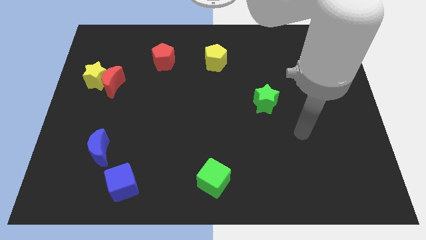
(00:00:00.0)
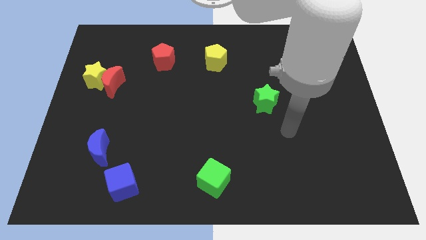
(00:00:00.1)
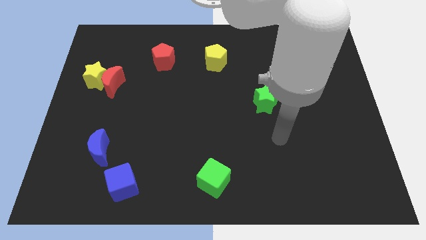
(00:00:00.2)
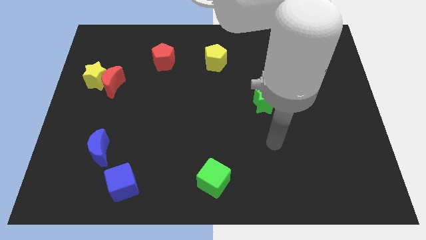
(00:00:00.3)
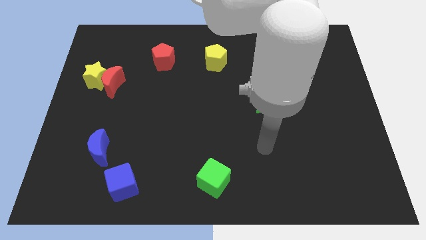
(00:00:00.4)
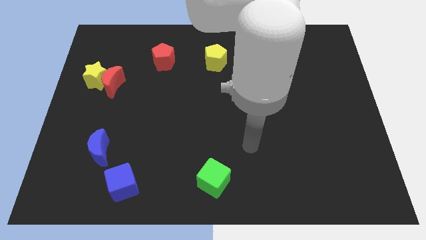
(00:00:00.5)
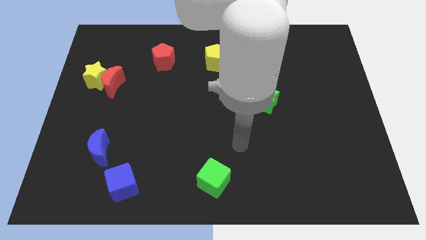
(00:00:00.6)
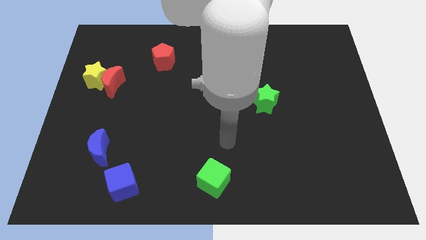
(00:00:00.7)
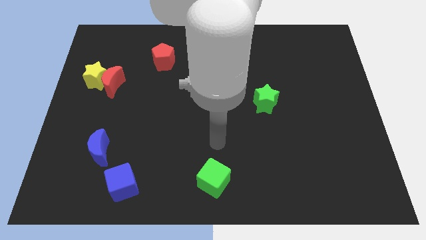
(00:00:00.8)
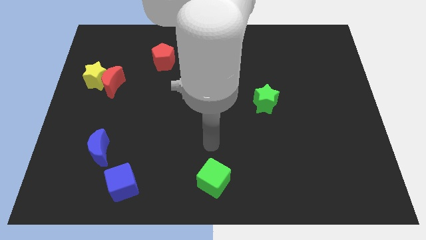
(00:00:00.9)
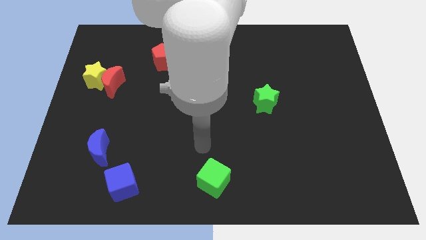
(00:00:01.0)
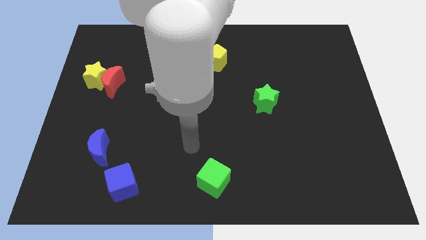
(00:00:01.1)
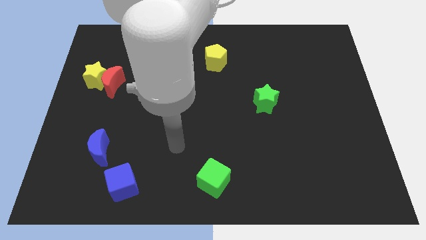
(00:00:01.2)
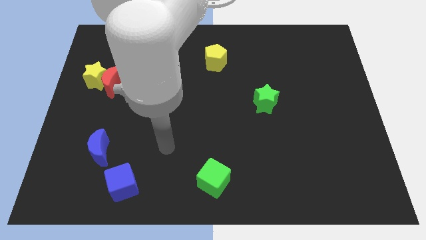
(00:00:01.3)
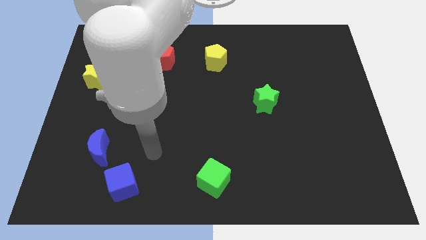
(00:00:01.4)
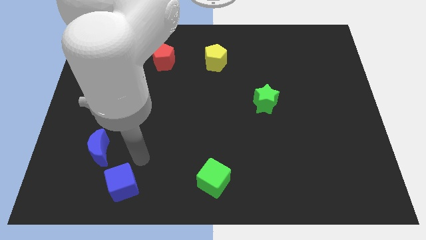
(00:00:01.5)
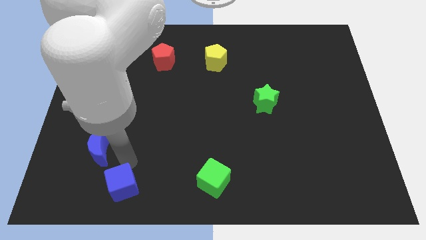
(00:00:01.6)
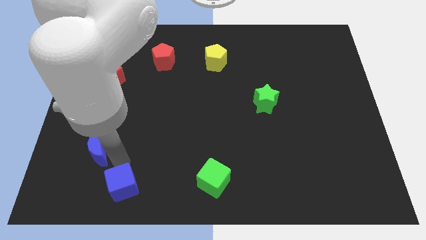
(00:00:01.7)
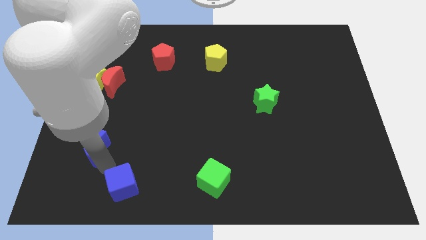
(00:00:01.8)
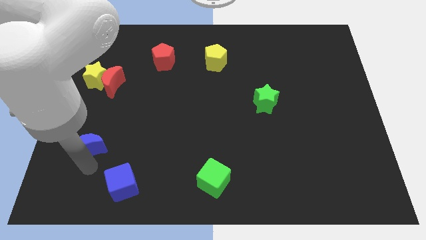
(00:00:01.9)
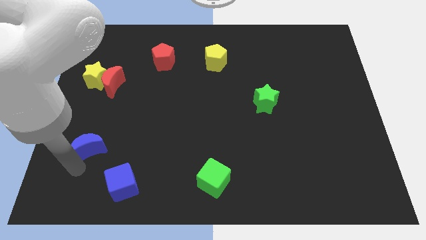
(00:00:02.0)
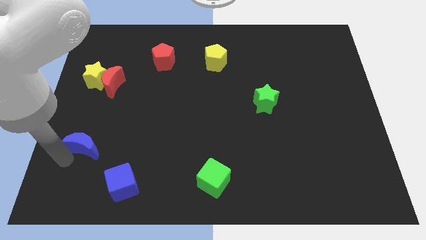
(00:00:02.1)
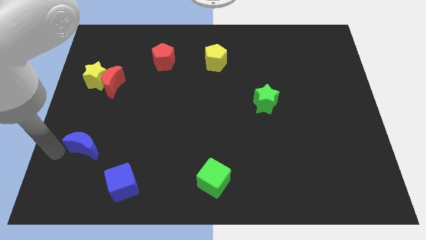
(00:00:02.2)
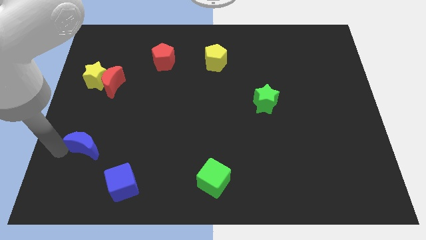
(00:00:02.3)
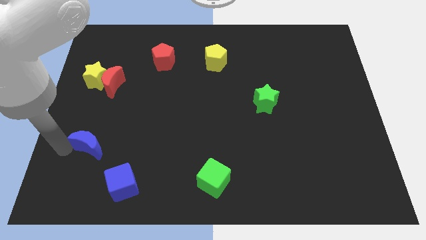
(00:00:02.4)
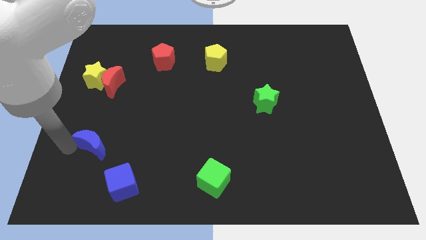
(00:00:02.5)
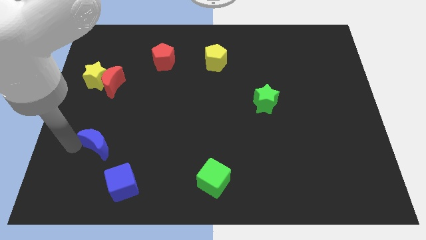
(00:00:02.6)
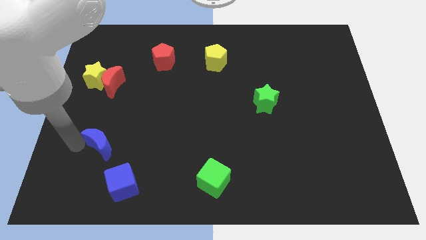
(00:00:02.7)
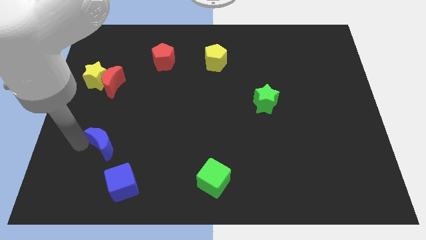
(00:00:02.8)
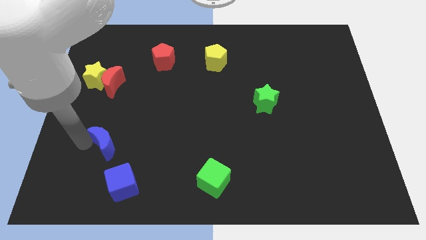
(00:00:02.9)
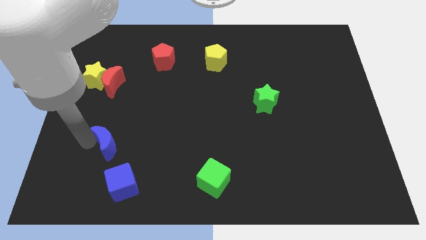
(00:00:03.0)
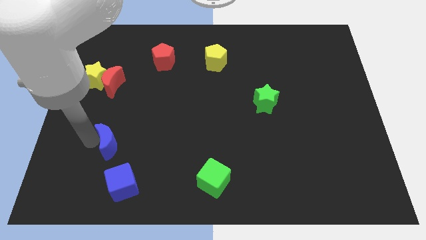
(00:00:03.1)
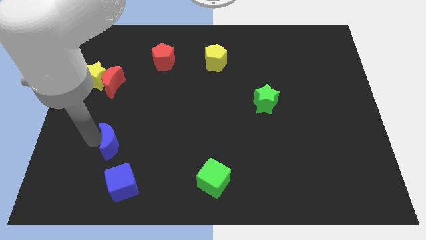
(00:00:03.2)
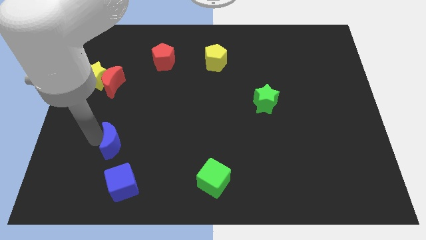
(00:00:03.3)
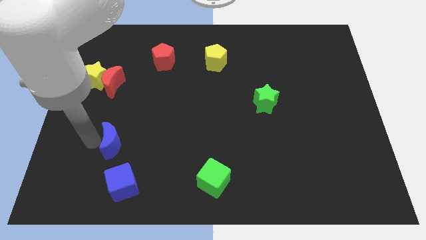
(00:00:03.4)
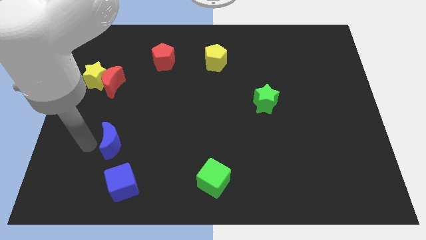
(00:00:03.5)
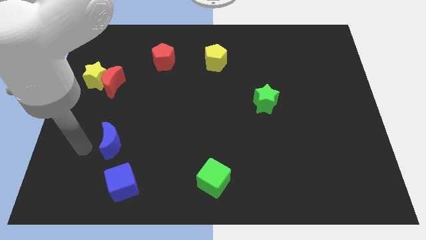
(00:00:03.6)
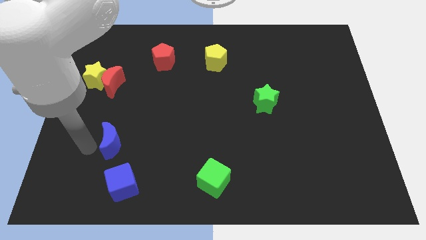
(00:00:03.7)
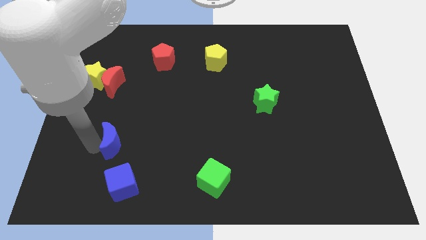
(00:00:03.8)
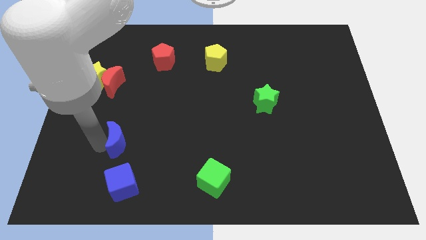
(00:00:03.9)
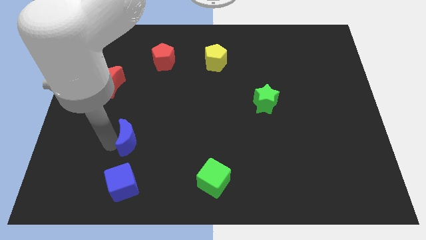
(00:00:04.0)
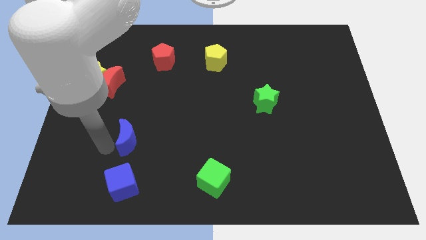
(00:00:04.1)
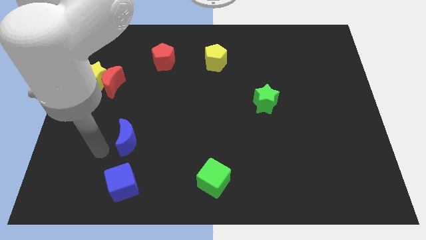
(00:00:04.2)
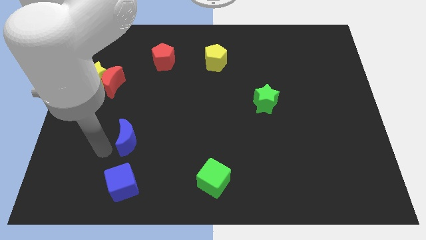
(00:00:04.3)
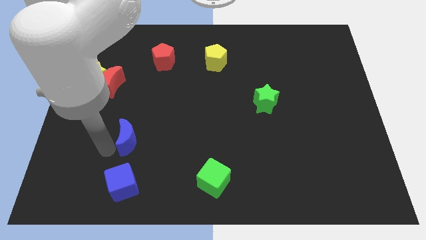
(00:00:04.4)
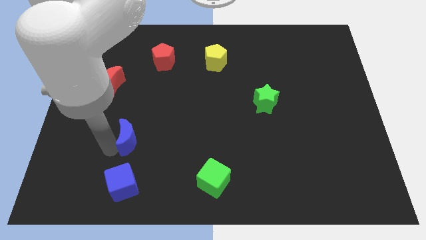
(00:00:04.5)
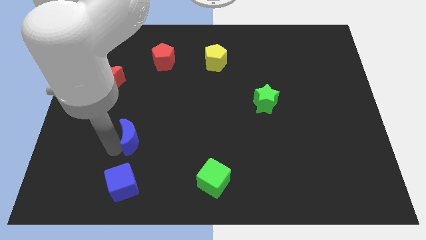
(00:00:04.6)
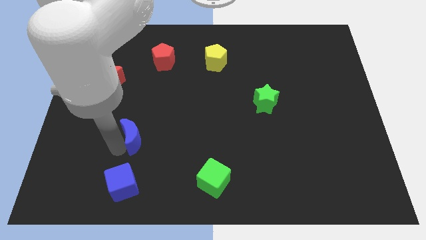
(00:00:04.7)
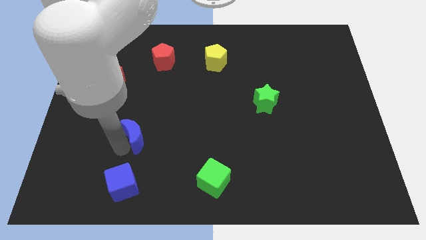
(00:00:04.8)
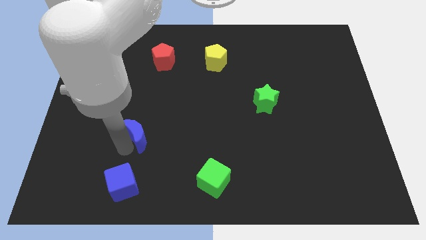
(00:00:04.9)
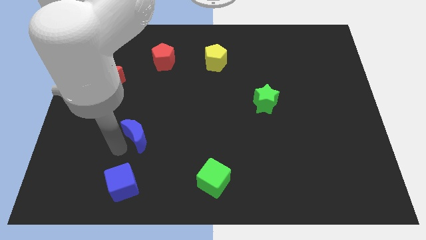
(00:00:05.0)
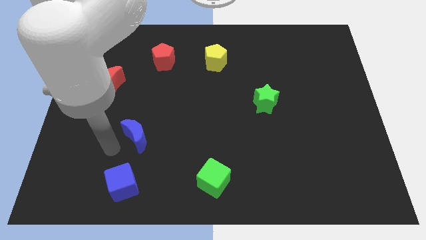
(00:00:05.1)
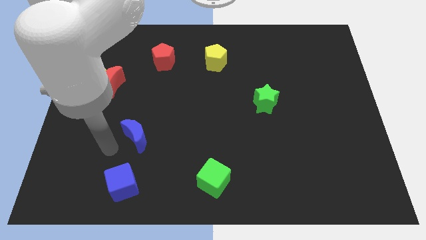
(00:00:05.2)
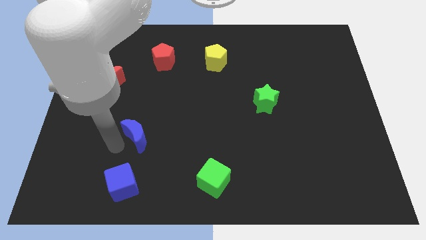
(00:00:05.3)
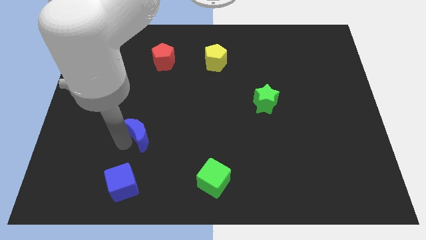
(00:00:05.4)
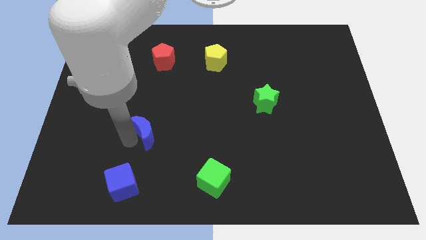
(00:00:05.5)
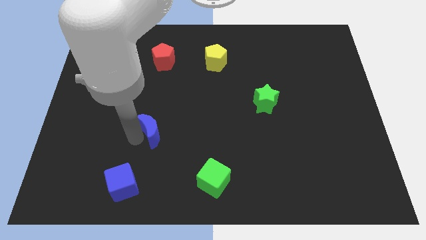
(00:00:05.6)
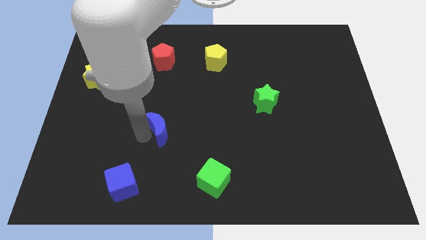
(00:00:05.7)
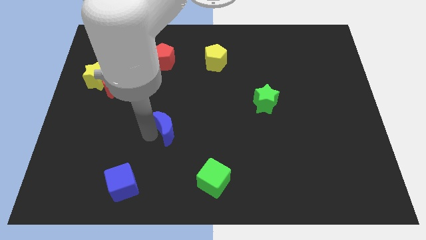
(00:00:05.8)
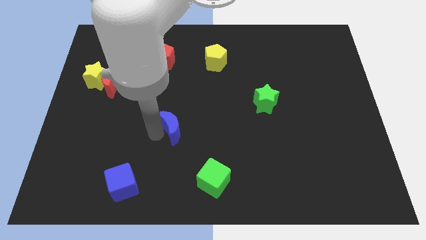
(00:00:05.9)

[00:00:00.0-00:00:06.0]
slide the blue moon to the center of the board

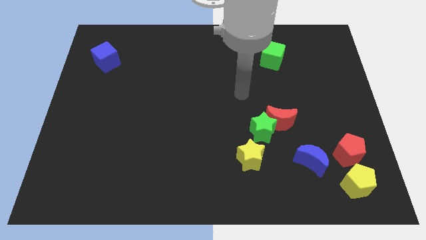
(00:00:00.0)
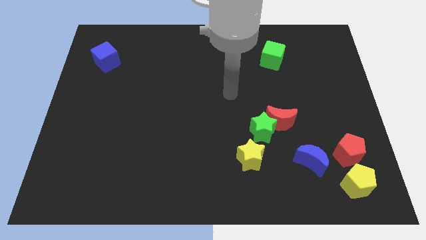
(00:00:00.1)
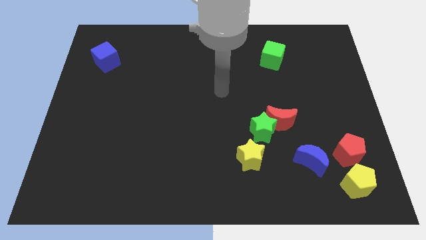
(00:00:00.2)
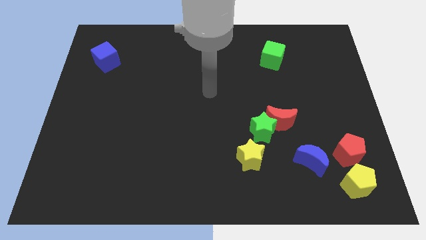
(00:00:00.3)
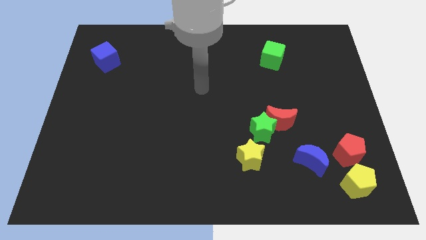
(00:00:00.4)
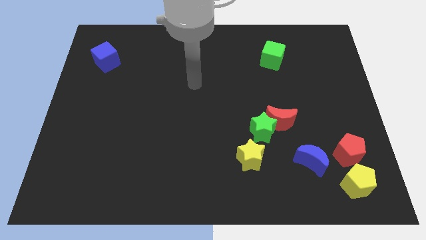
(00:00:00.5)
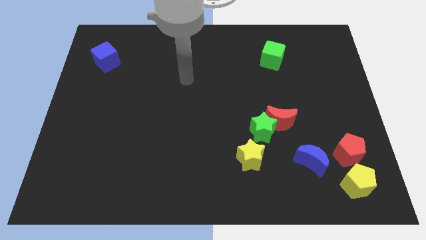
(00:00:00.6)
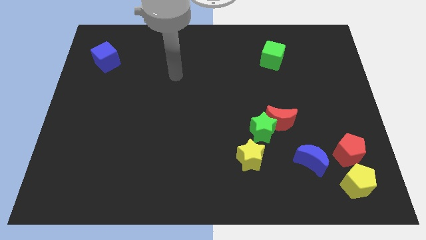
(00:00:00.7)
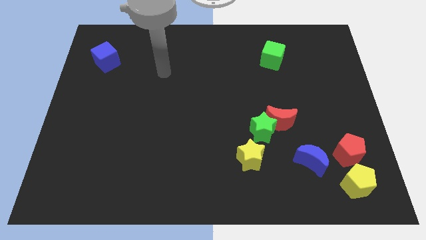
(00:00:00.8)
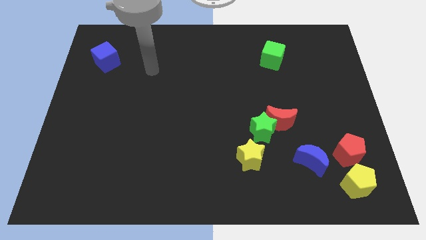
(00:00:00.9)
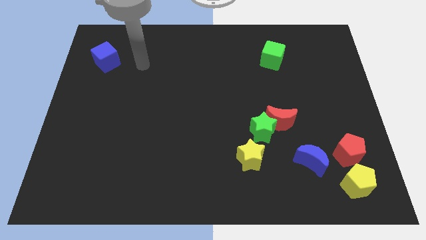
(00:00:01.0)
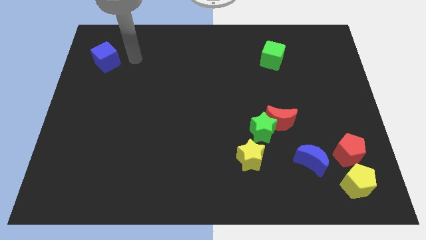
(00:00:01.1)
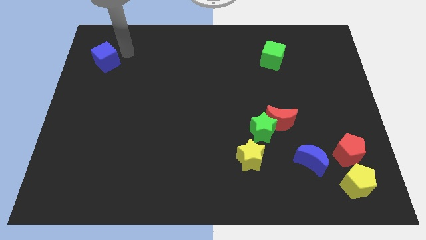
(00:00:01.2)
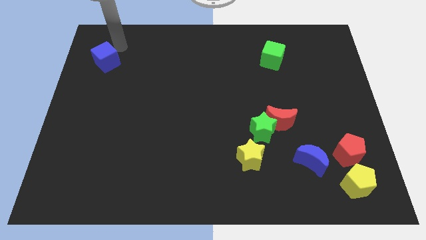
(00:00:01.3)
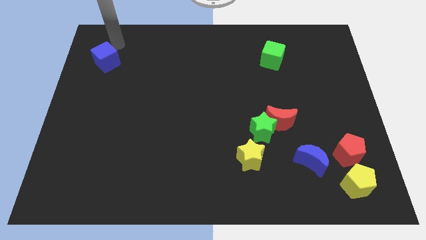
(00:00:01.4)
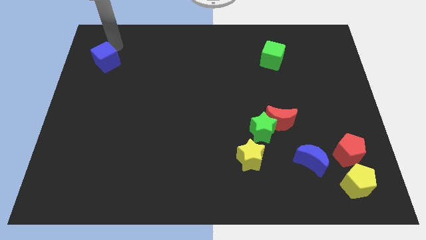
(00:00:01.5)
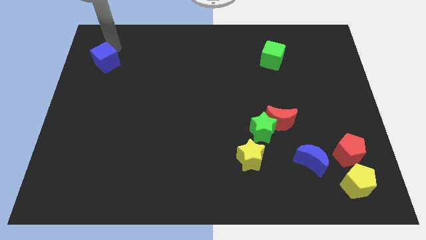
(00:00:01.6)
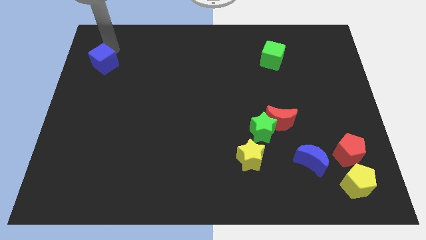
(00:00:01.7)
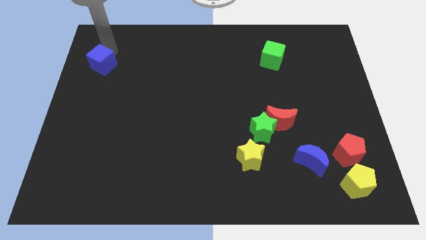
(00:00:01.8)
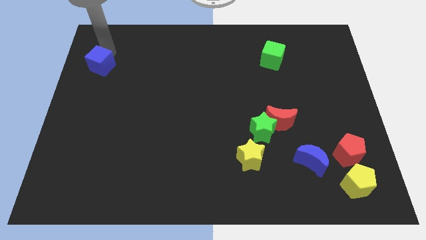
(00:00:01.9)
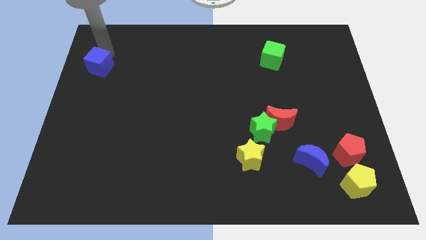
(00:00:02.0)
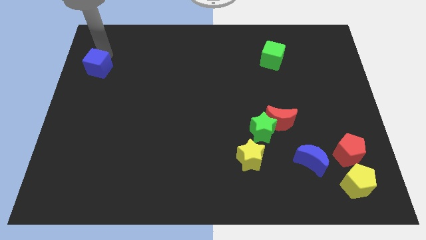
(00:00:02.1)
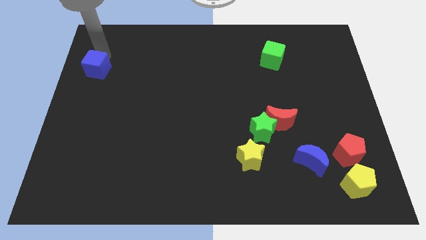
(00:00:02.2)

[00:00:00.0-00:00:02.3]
put the blue cube to the center left
